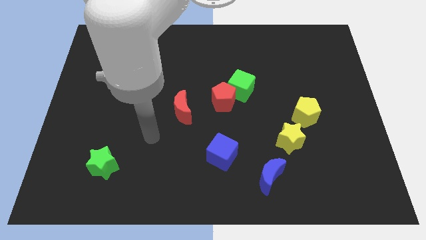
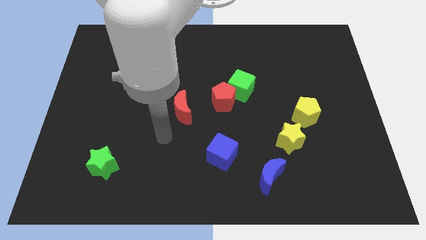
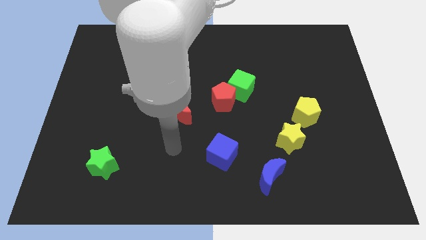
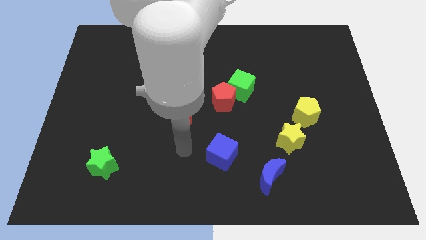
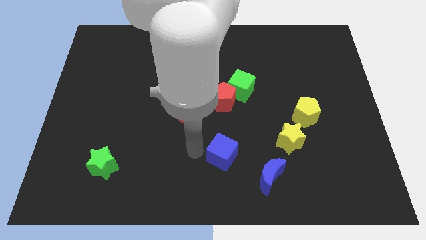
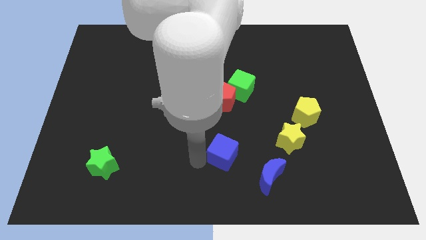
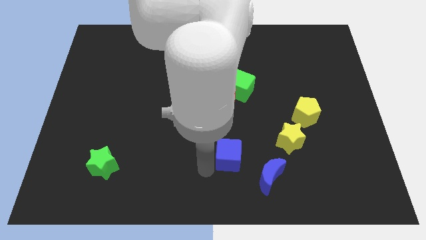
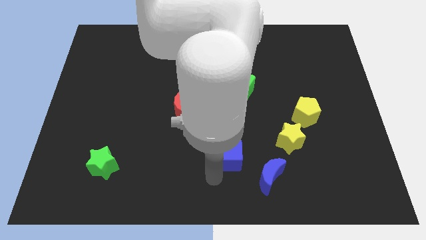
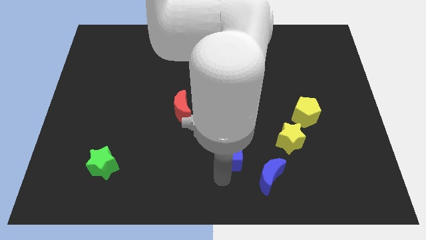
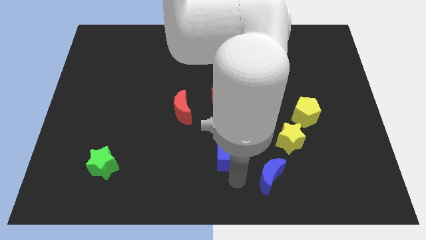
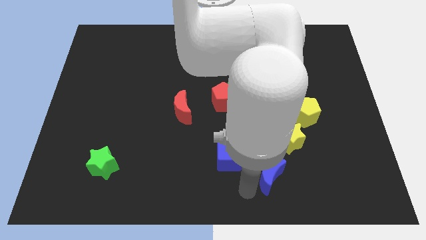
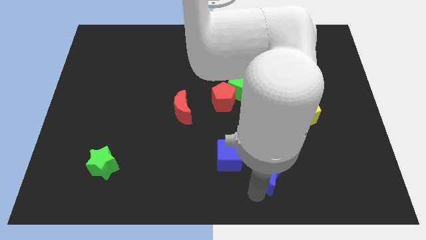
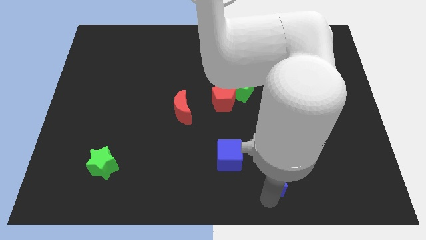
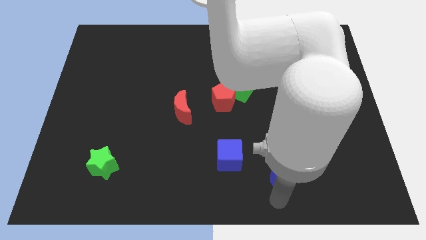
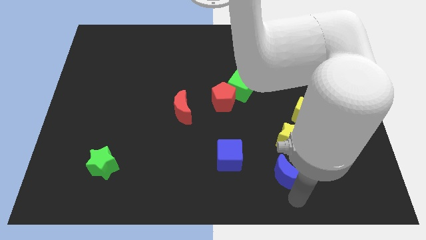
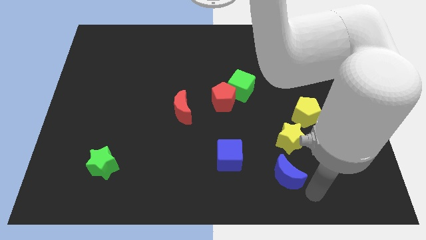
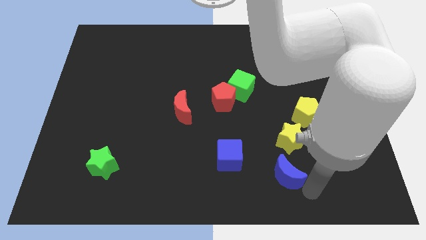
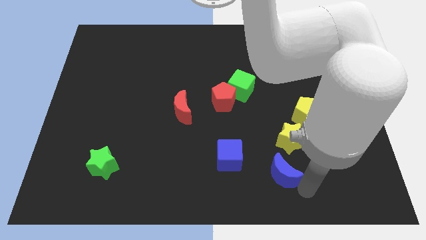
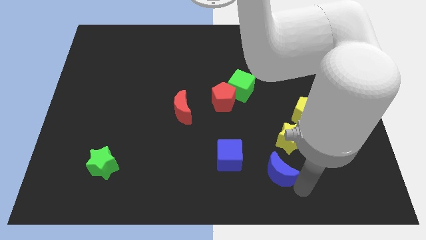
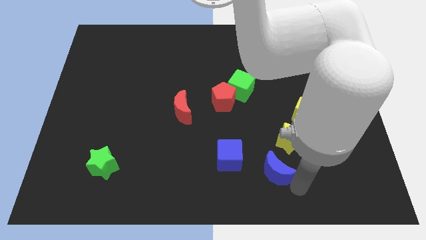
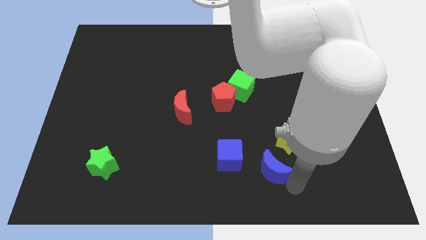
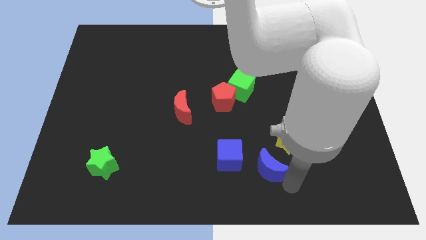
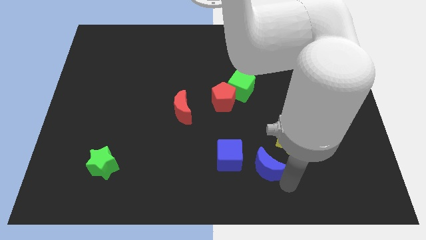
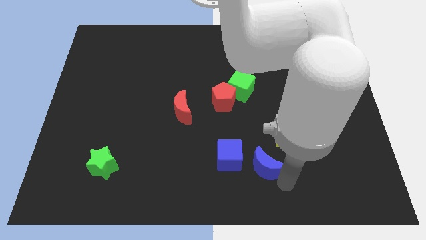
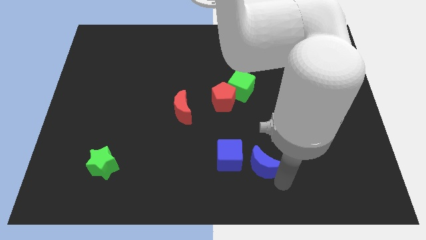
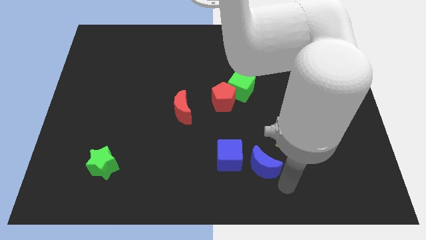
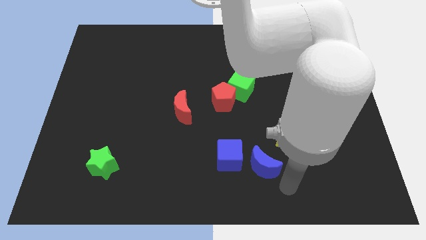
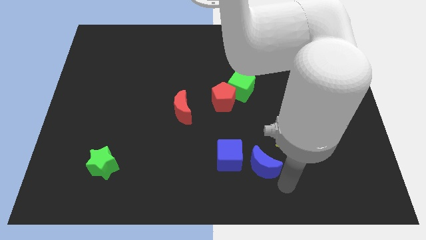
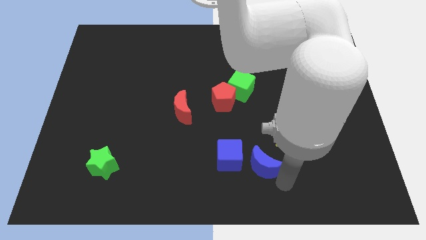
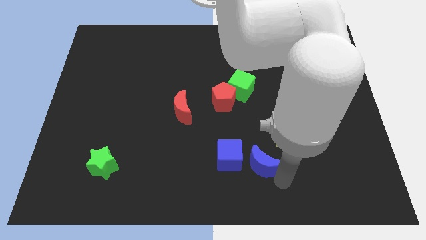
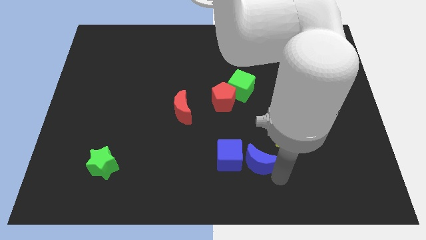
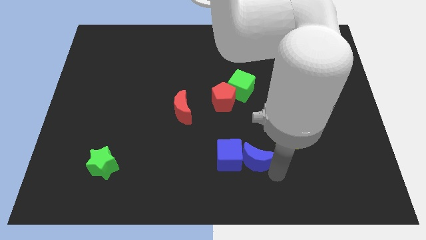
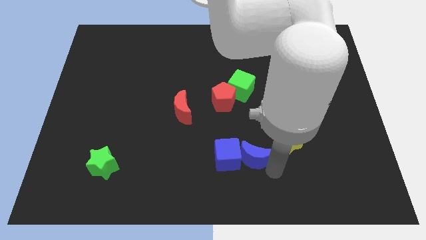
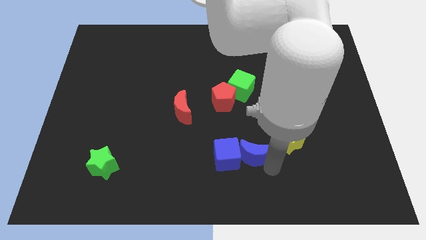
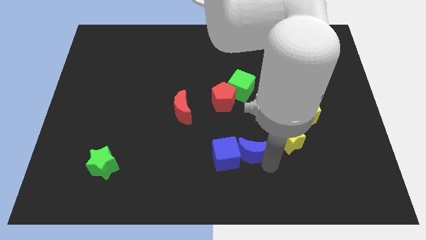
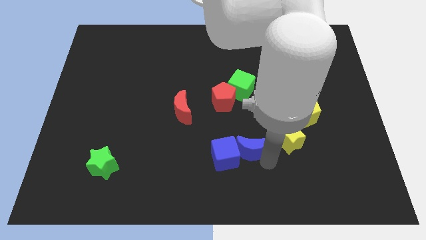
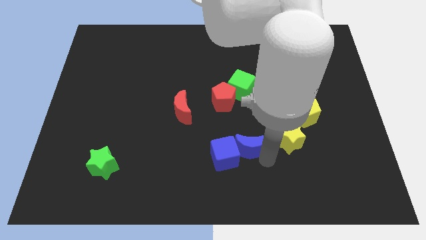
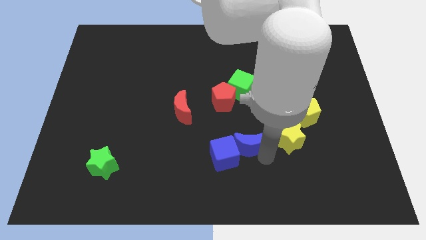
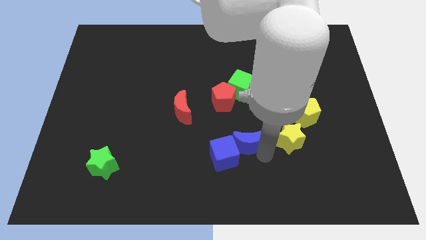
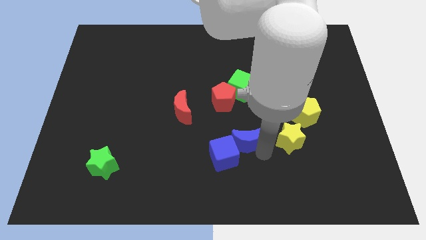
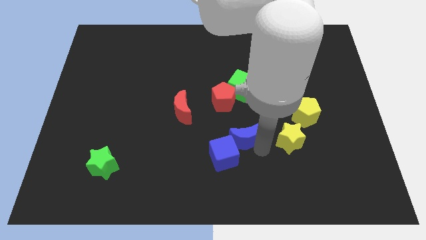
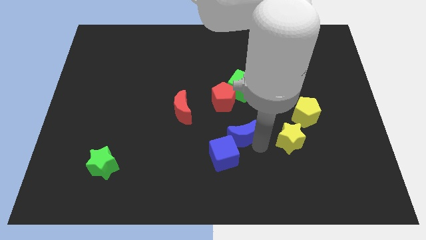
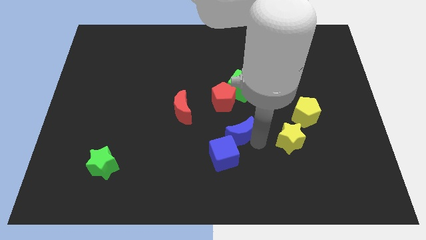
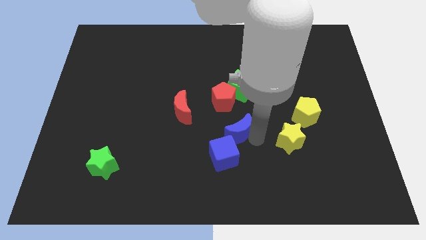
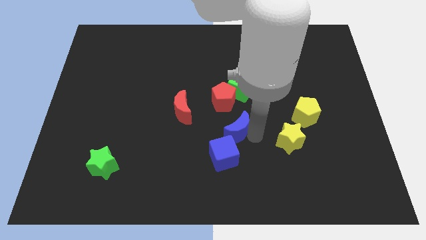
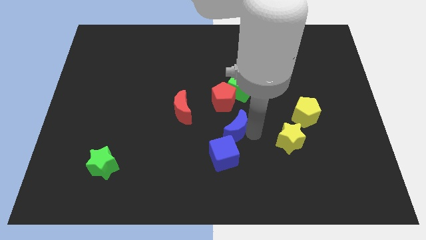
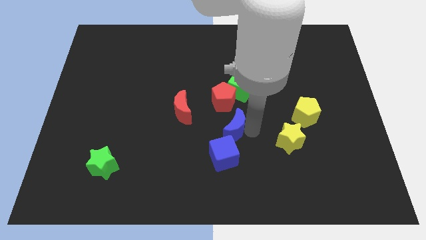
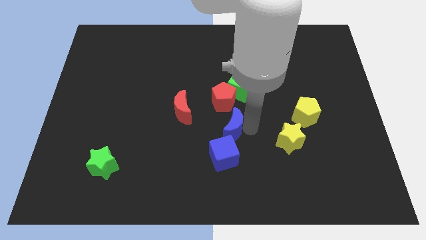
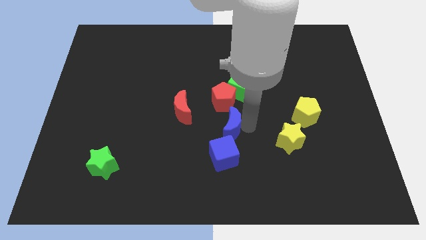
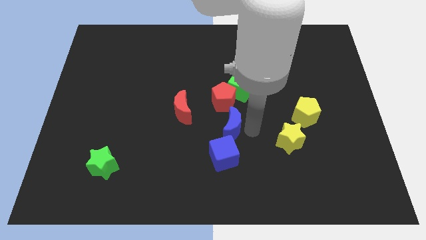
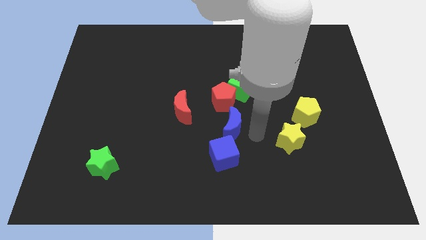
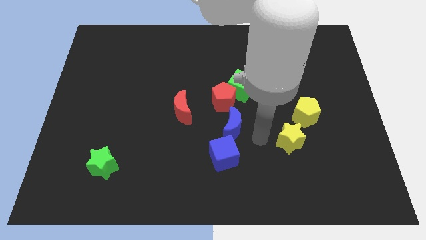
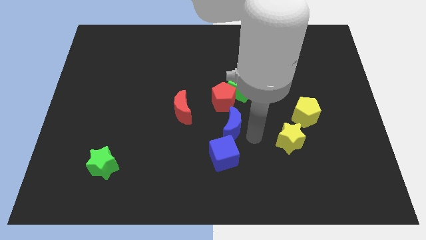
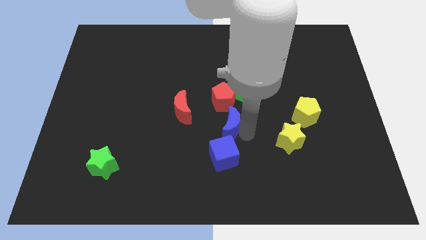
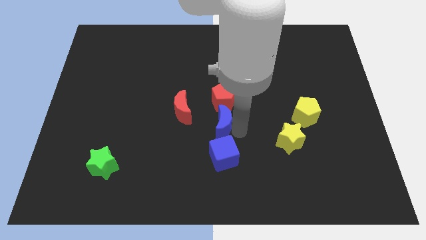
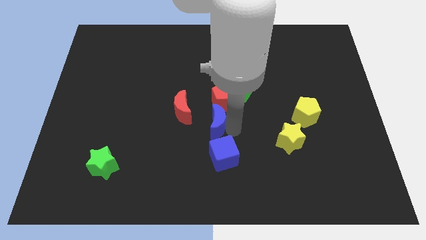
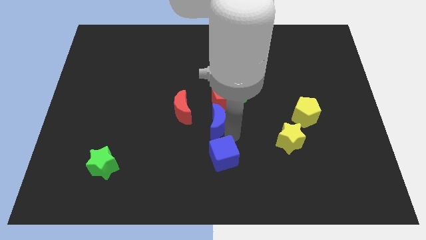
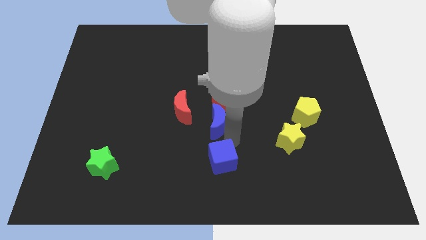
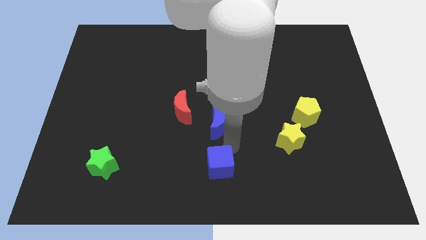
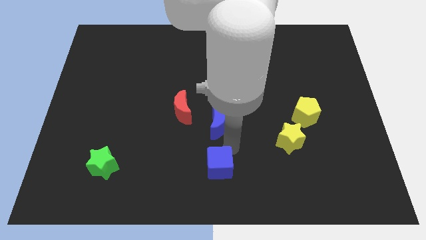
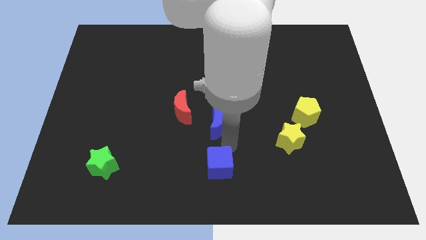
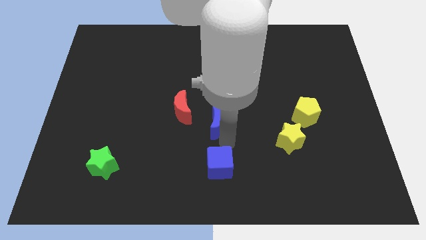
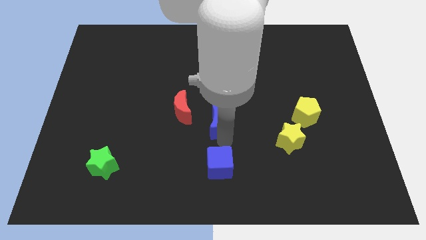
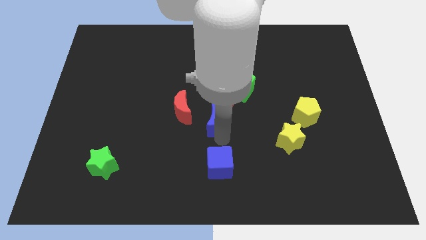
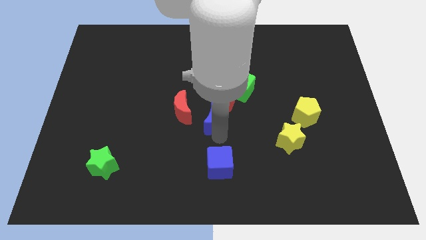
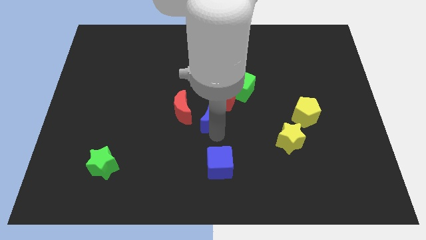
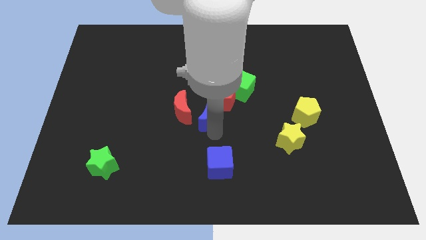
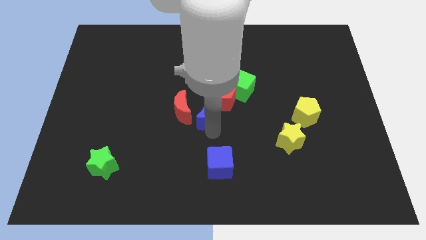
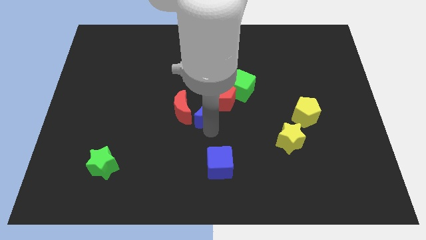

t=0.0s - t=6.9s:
push the blue moon to the left side of the red pentagon

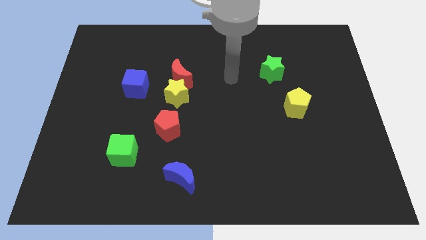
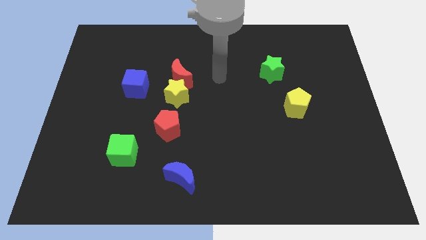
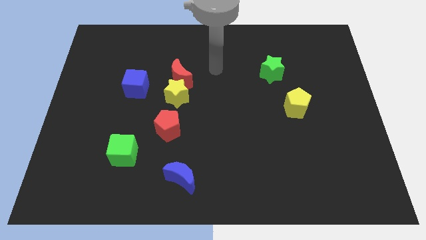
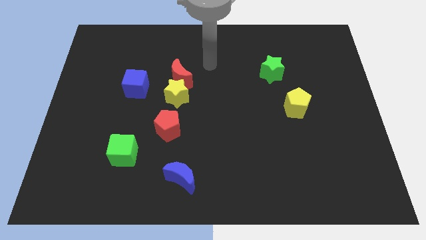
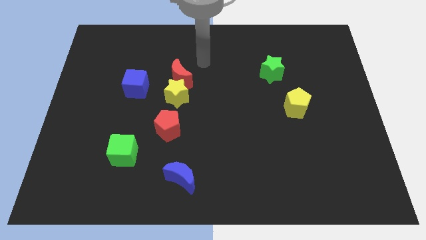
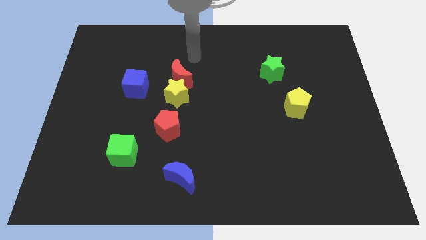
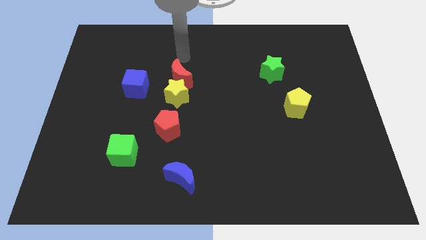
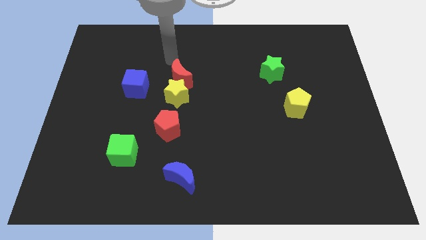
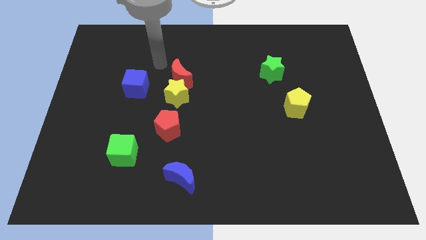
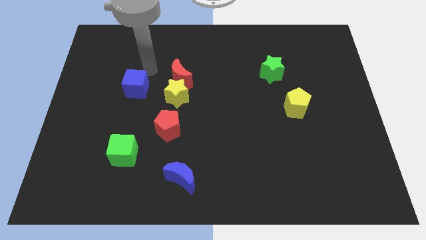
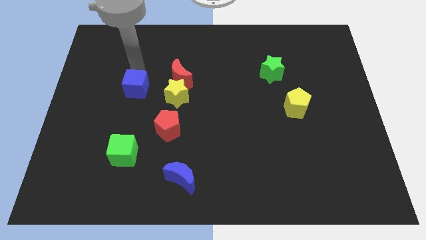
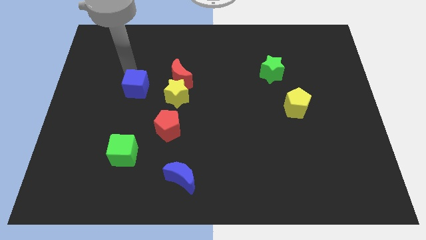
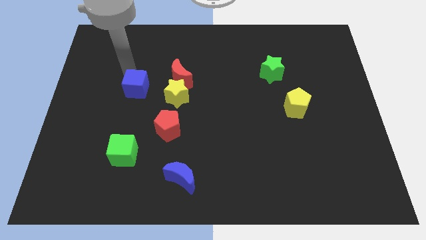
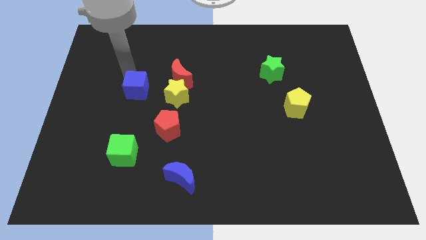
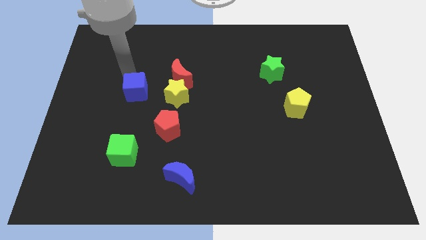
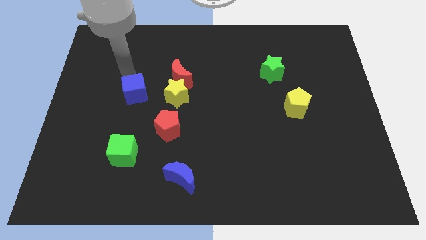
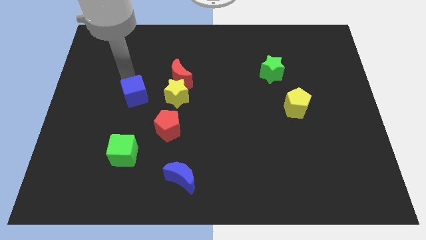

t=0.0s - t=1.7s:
move the blue cube diagonally up and to the left of the red pentagon
